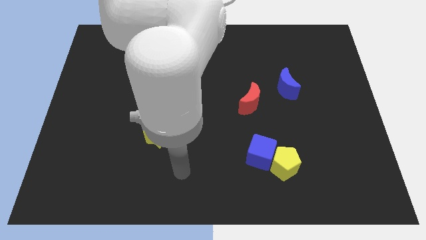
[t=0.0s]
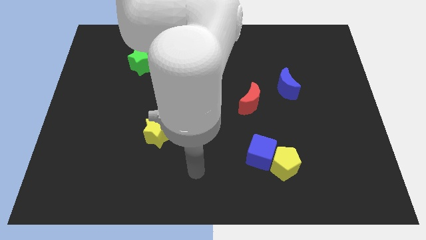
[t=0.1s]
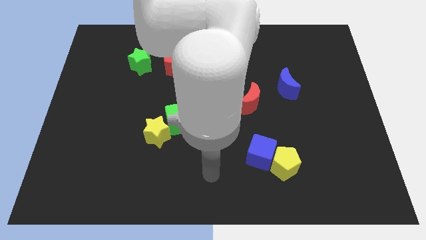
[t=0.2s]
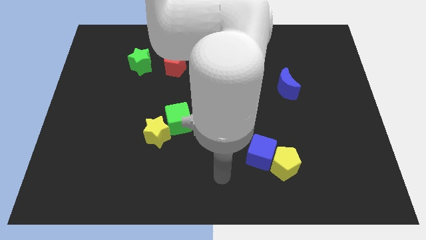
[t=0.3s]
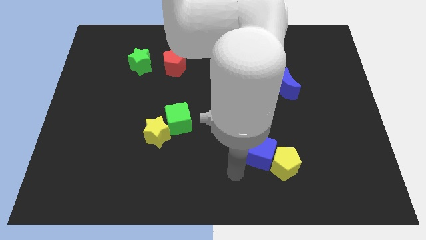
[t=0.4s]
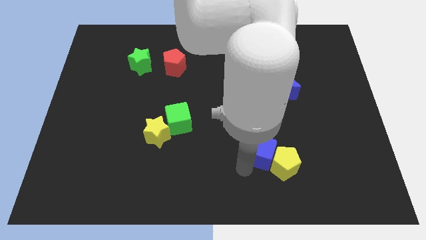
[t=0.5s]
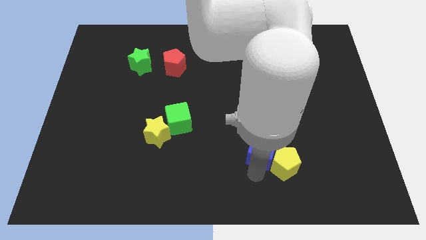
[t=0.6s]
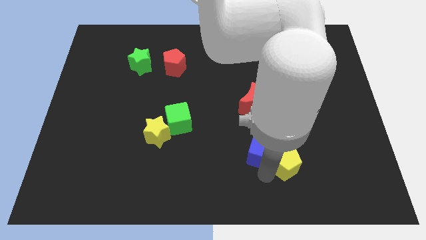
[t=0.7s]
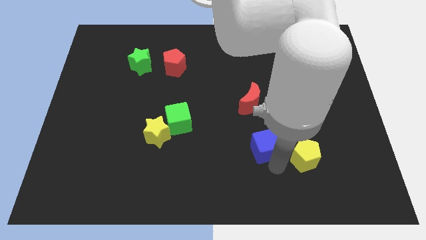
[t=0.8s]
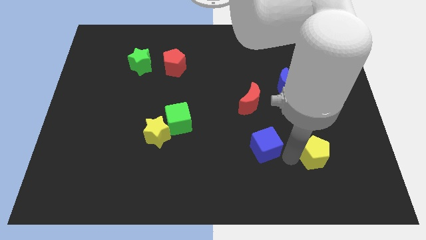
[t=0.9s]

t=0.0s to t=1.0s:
pull the blue cube apart from the yellow pentagon

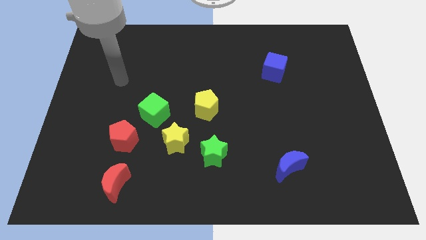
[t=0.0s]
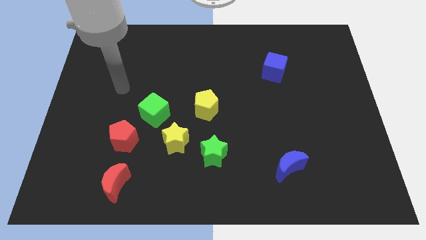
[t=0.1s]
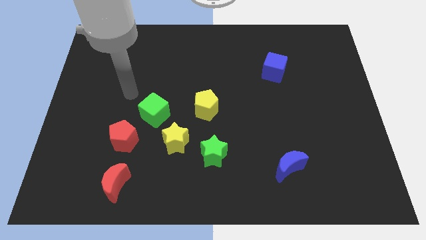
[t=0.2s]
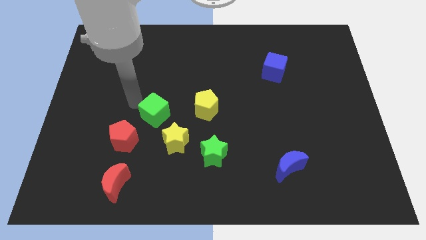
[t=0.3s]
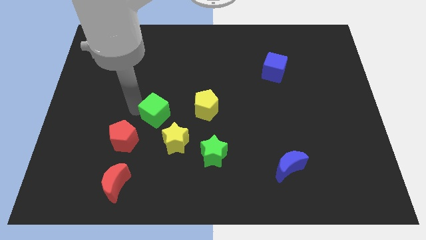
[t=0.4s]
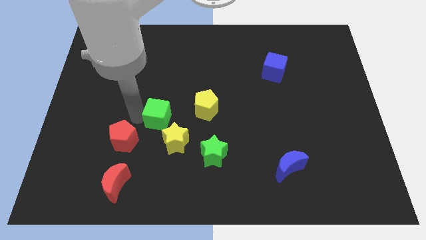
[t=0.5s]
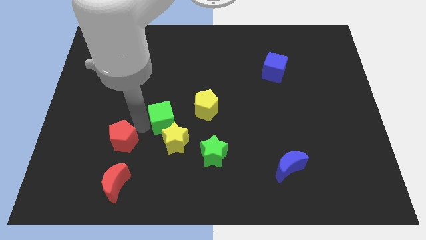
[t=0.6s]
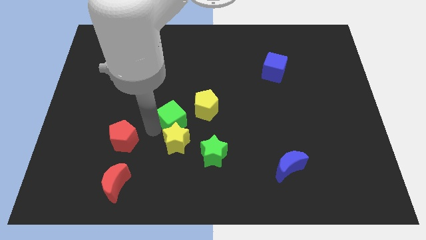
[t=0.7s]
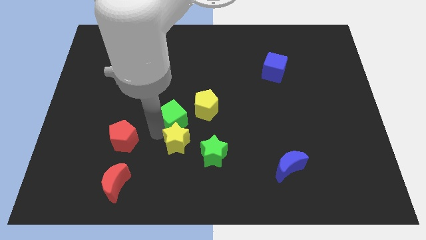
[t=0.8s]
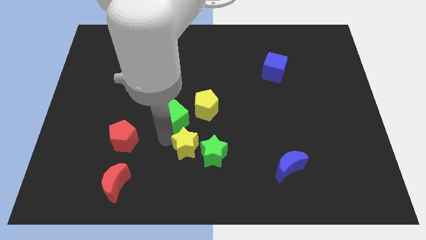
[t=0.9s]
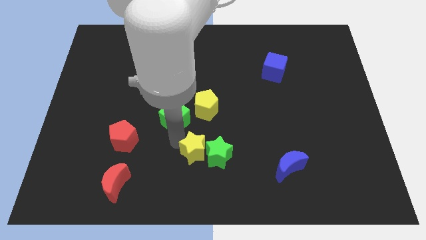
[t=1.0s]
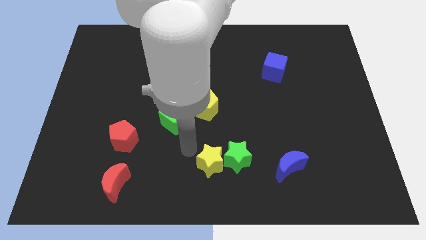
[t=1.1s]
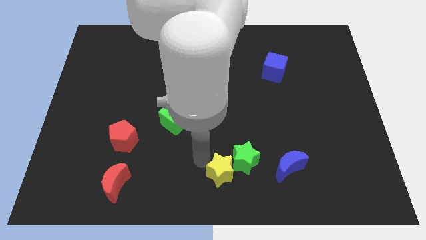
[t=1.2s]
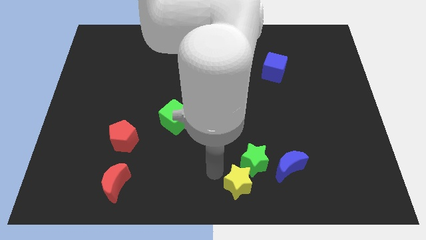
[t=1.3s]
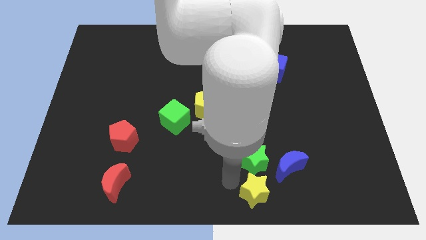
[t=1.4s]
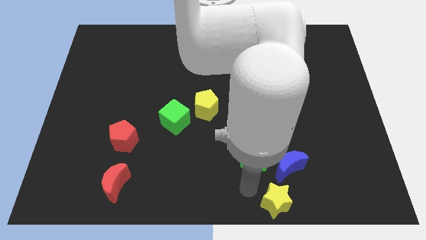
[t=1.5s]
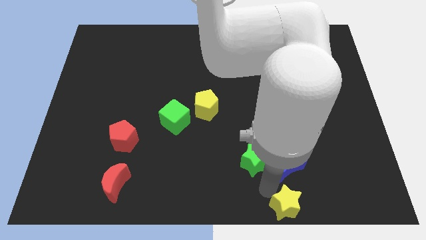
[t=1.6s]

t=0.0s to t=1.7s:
separate the green star from the yellow star

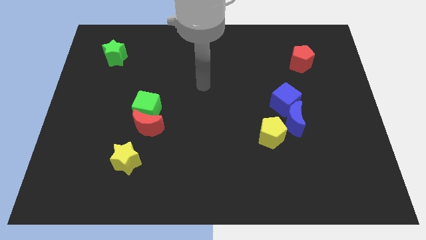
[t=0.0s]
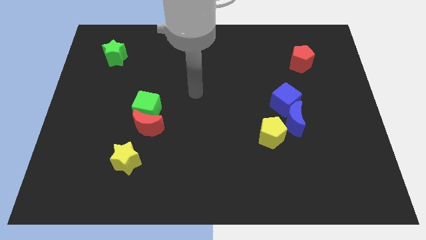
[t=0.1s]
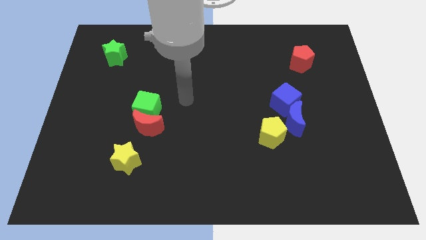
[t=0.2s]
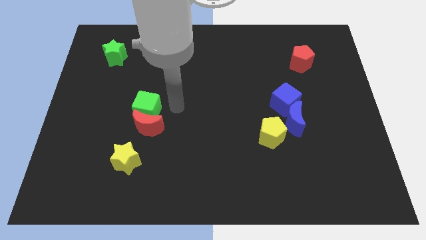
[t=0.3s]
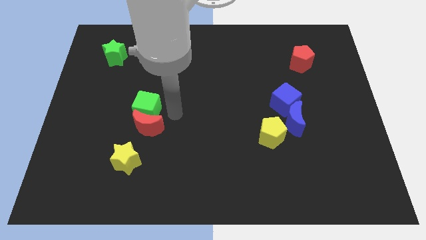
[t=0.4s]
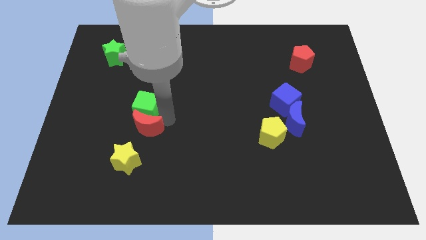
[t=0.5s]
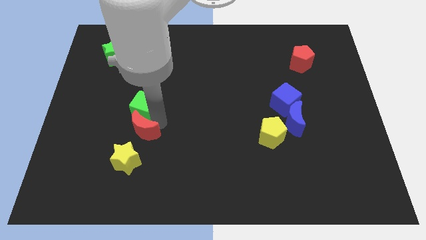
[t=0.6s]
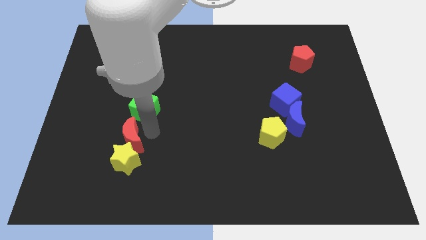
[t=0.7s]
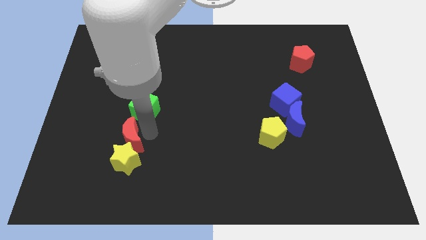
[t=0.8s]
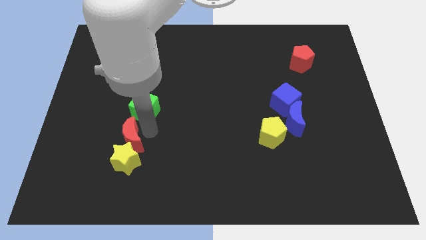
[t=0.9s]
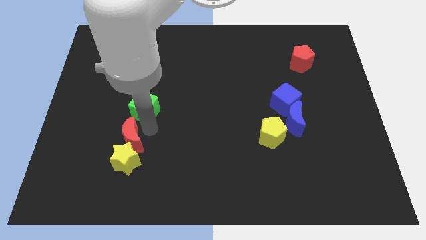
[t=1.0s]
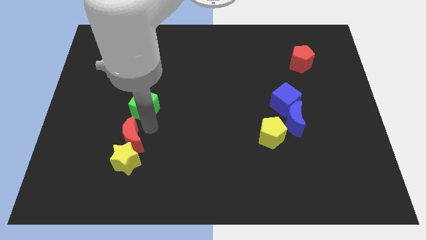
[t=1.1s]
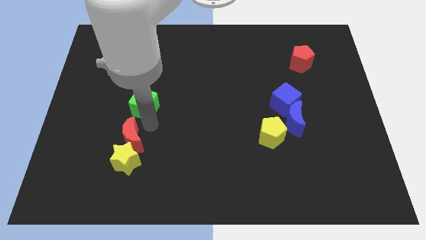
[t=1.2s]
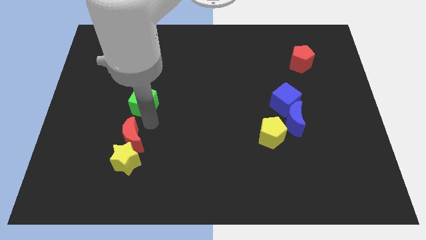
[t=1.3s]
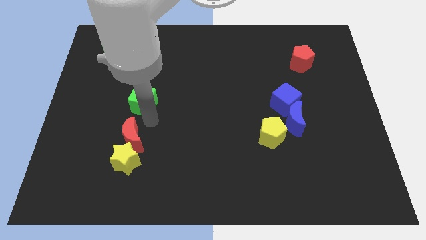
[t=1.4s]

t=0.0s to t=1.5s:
pull the green cube apart from the red moon

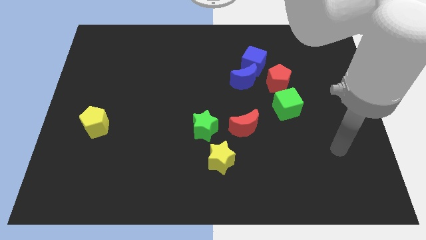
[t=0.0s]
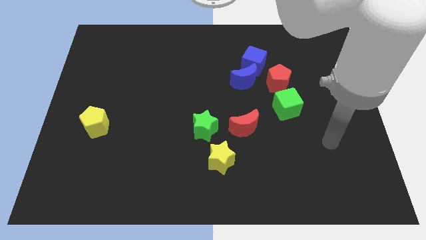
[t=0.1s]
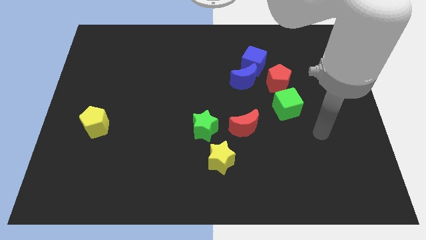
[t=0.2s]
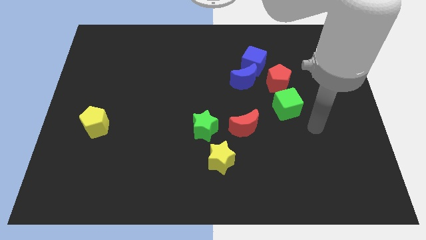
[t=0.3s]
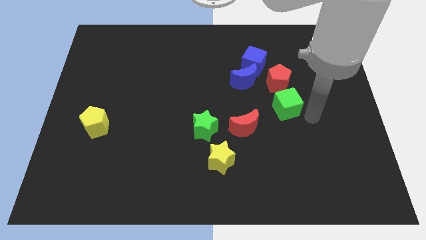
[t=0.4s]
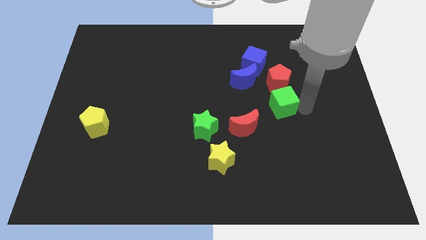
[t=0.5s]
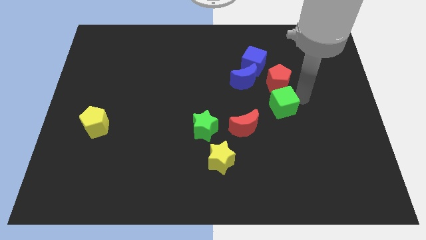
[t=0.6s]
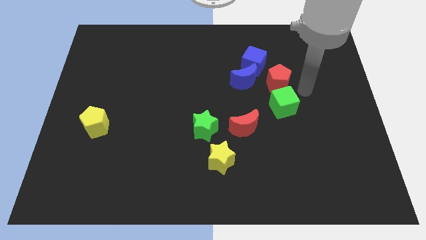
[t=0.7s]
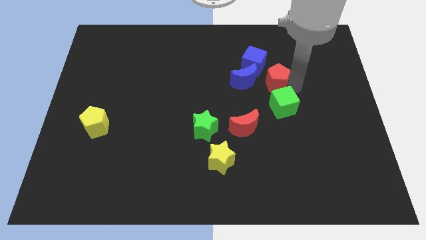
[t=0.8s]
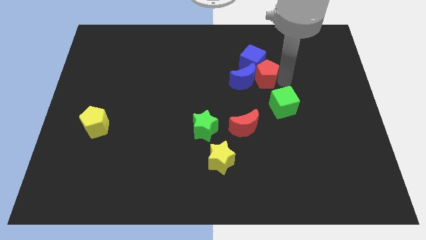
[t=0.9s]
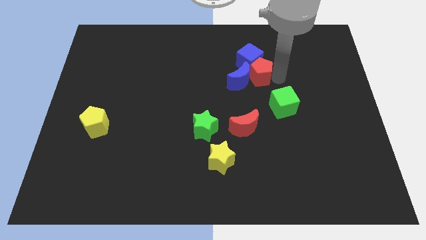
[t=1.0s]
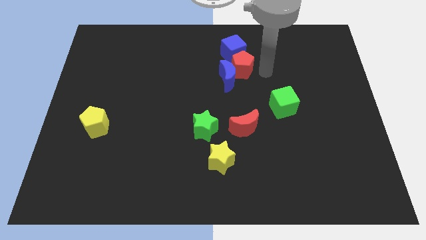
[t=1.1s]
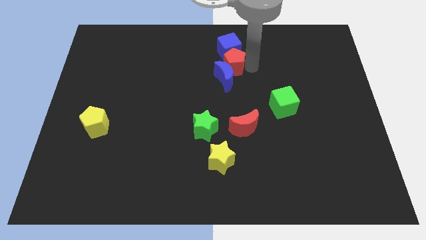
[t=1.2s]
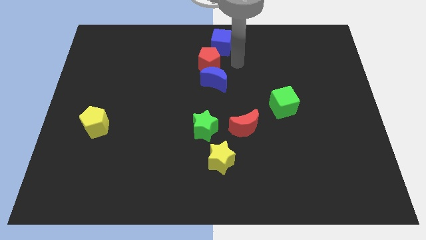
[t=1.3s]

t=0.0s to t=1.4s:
pull the blue moon apart from the blue cube and red pentagon

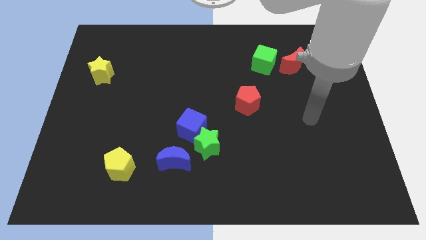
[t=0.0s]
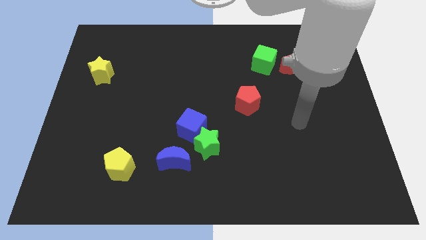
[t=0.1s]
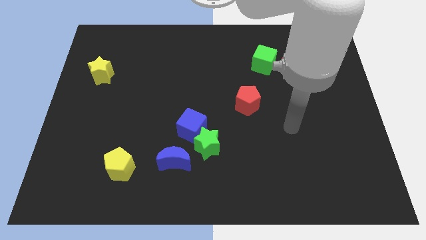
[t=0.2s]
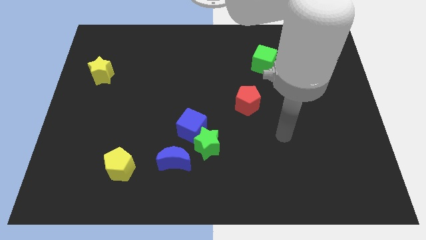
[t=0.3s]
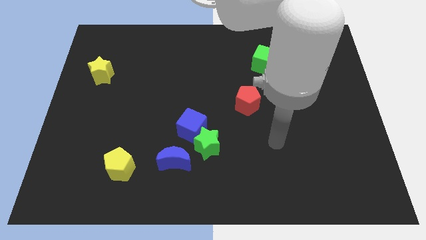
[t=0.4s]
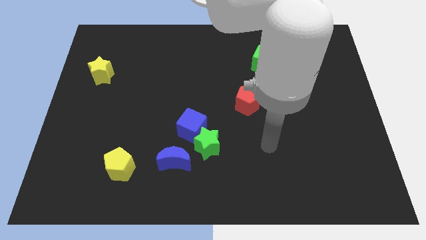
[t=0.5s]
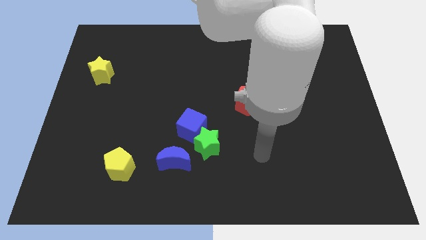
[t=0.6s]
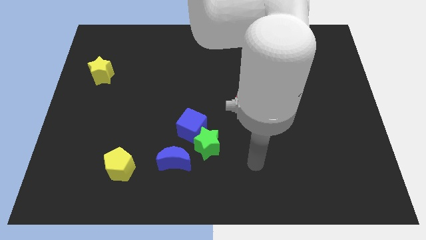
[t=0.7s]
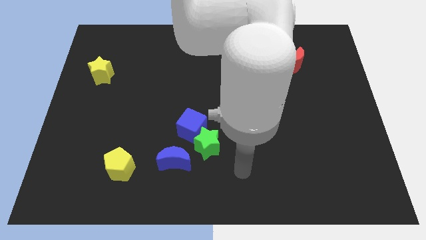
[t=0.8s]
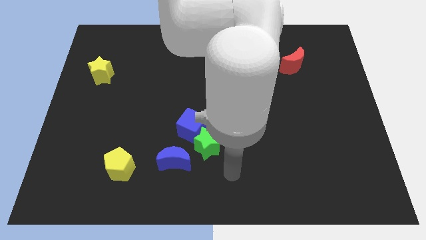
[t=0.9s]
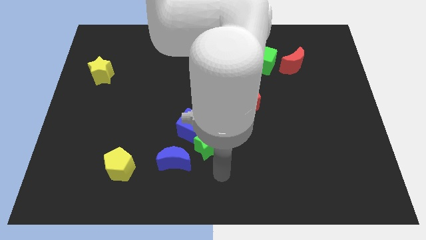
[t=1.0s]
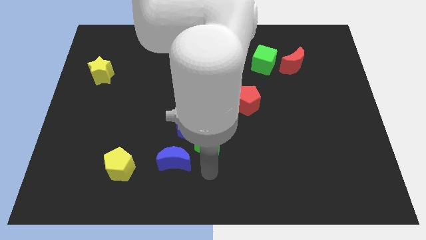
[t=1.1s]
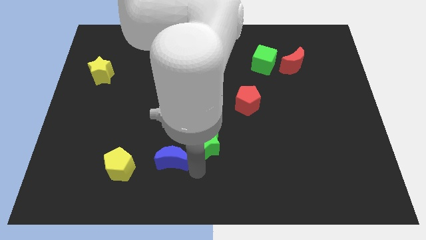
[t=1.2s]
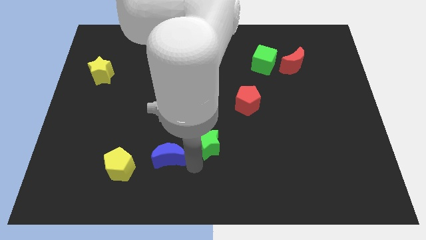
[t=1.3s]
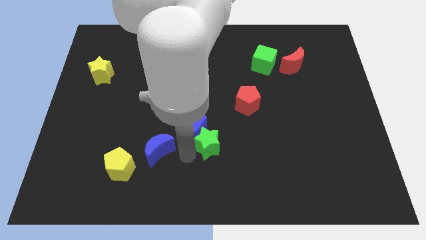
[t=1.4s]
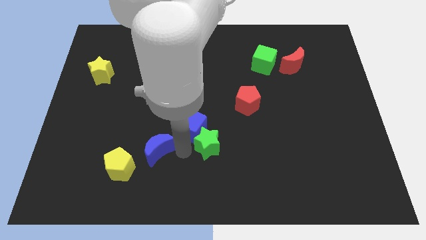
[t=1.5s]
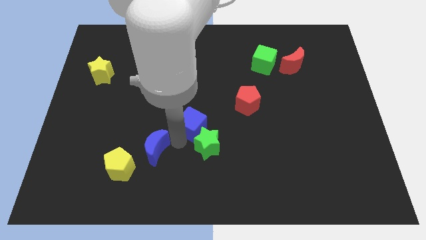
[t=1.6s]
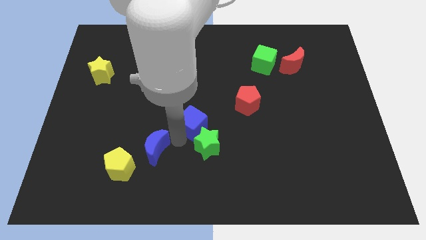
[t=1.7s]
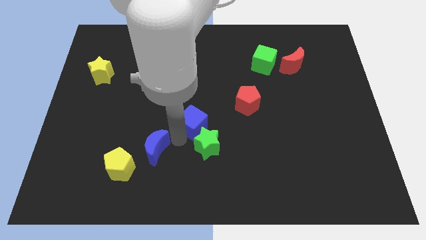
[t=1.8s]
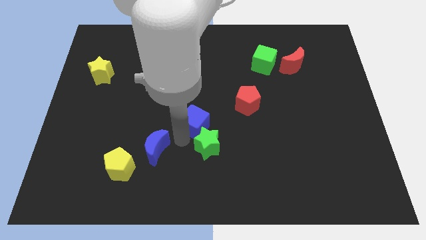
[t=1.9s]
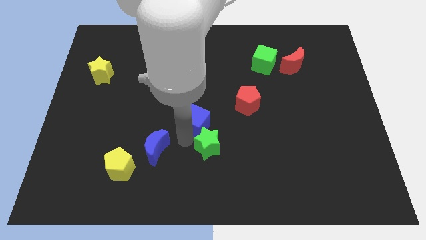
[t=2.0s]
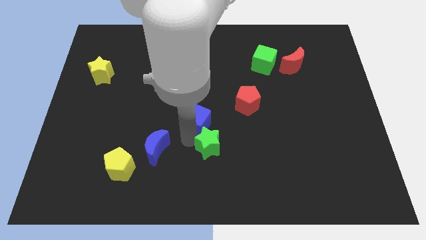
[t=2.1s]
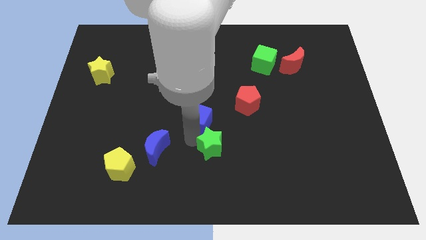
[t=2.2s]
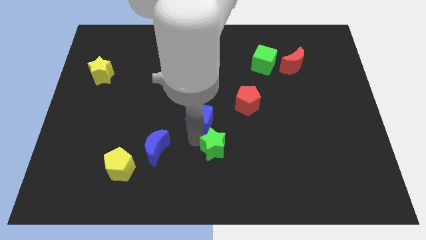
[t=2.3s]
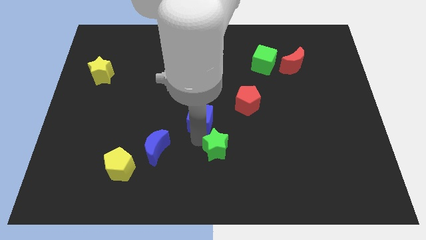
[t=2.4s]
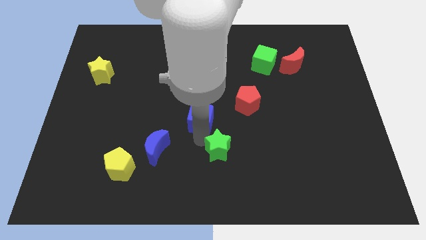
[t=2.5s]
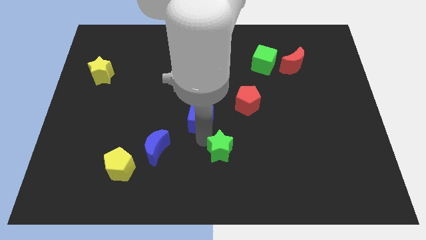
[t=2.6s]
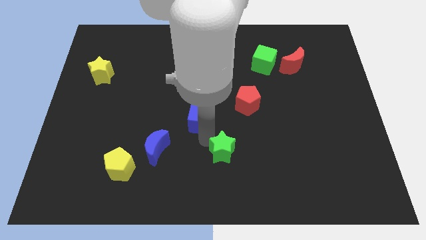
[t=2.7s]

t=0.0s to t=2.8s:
move the green star away from the blue cube and blue moon

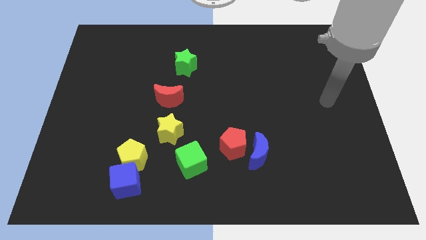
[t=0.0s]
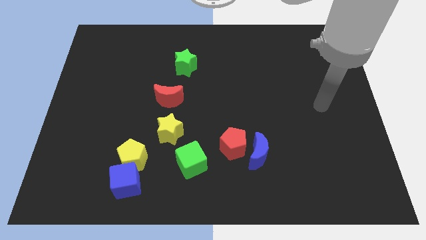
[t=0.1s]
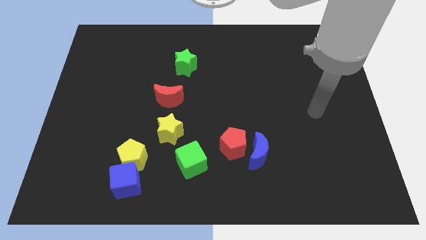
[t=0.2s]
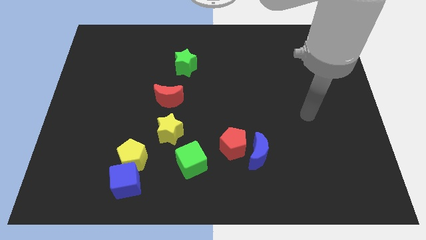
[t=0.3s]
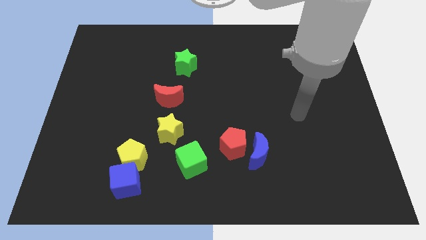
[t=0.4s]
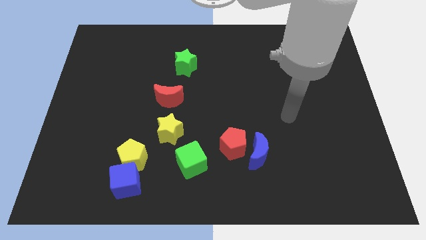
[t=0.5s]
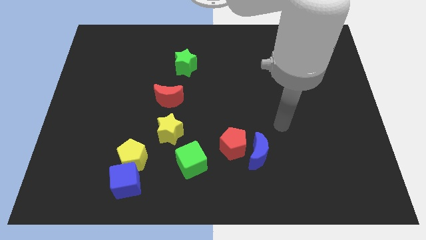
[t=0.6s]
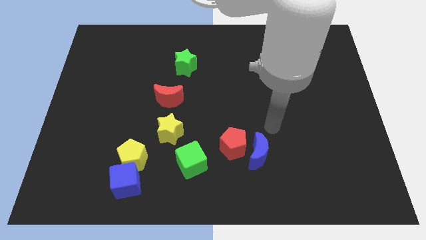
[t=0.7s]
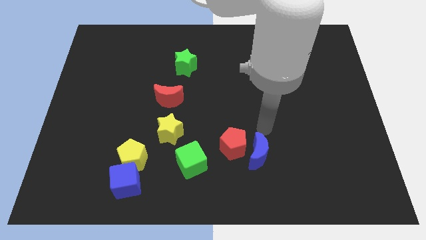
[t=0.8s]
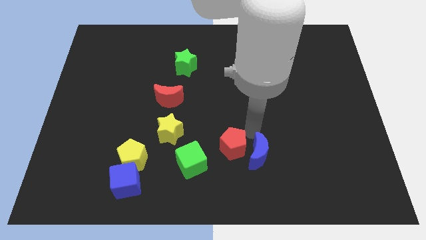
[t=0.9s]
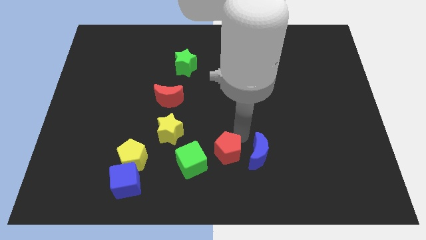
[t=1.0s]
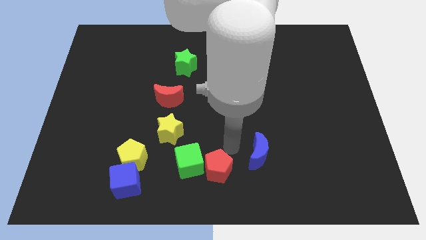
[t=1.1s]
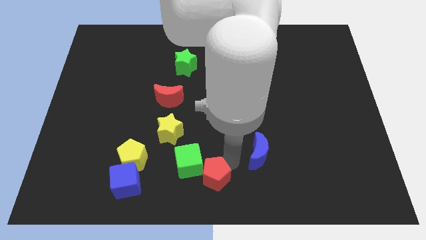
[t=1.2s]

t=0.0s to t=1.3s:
move the blue moon away from the red pentagon
